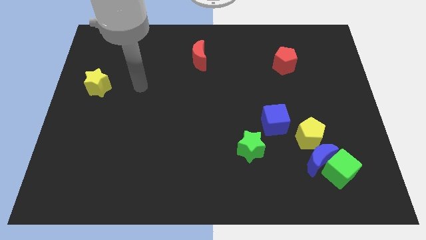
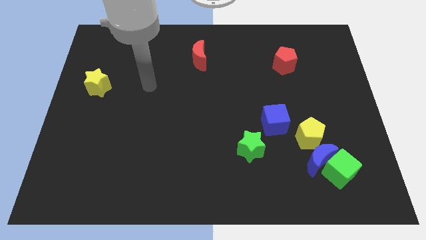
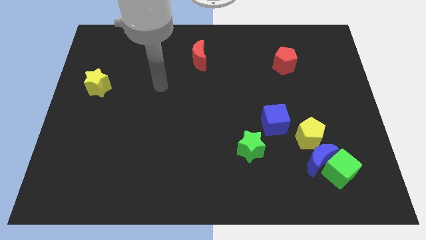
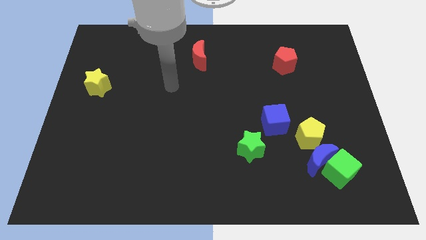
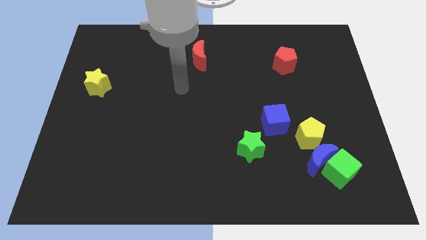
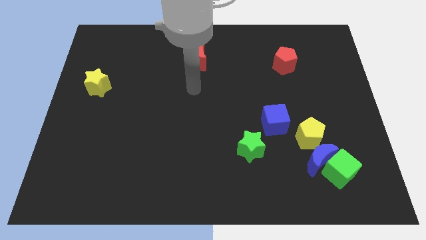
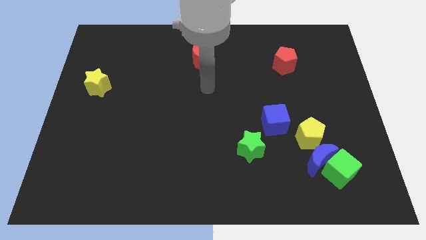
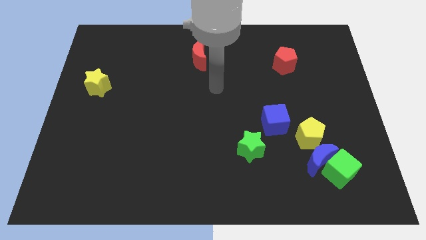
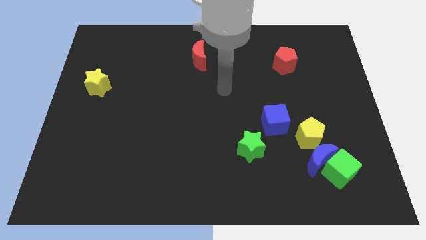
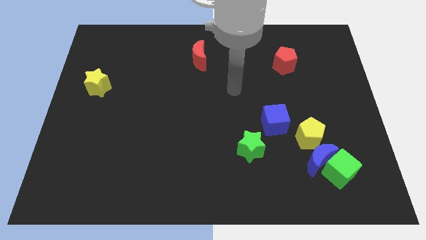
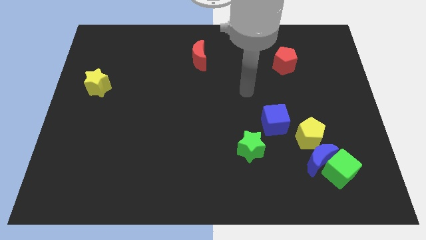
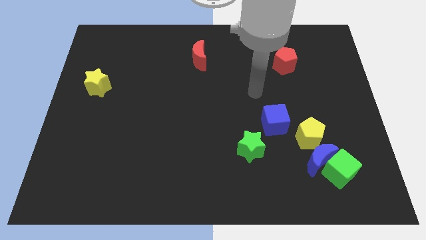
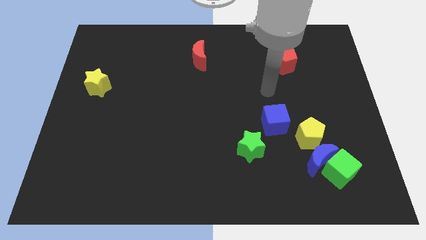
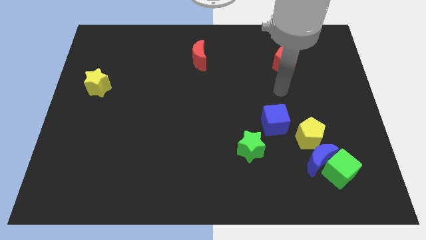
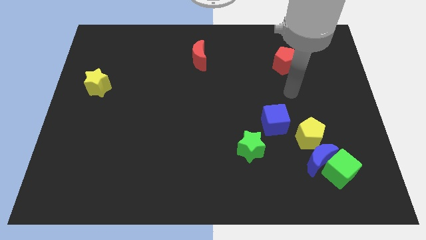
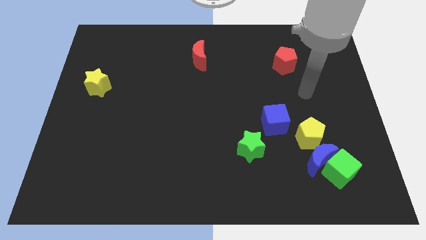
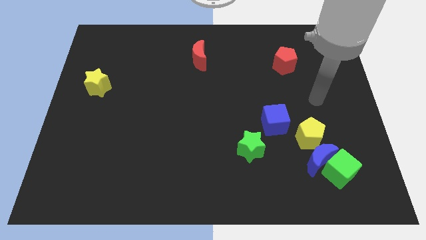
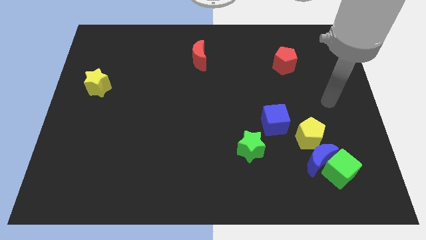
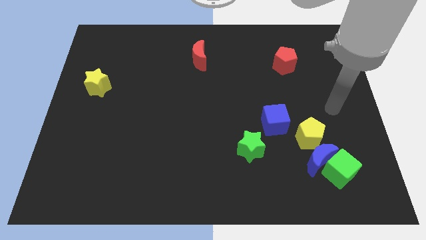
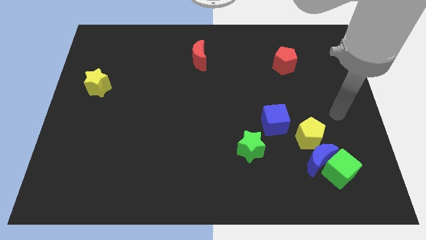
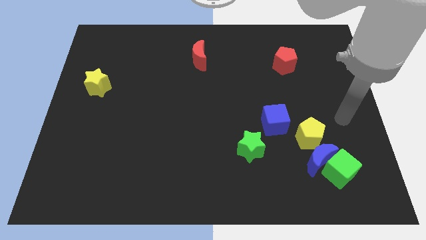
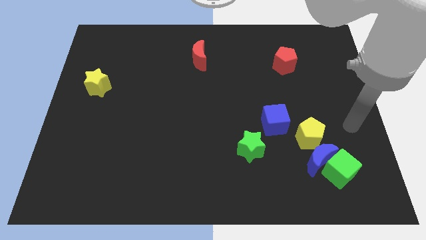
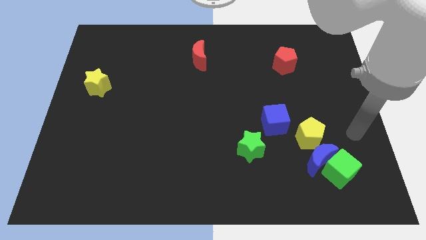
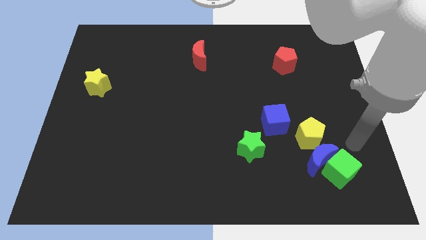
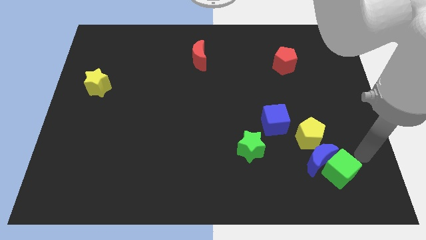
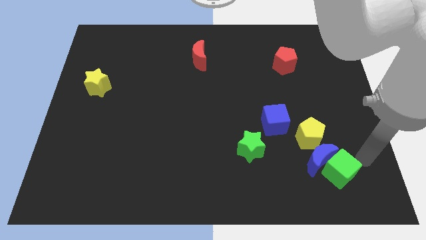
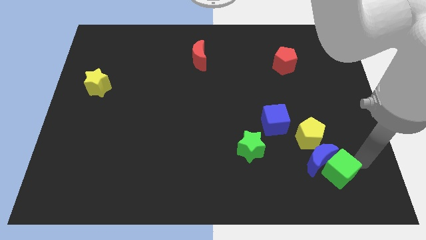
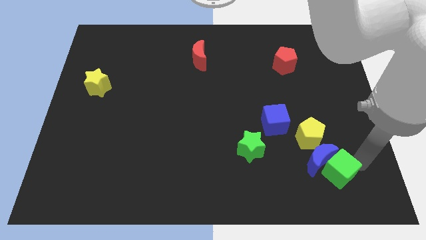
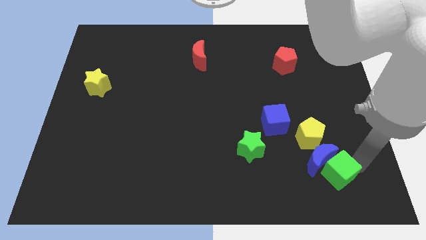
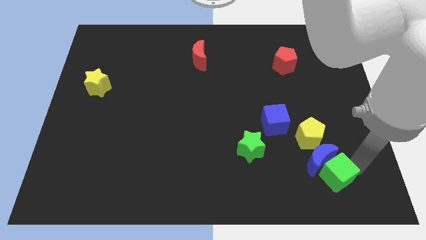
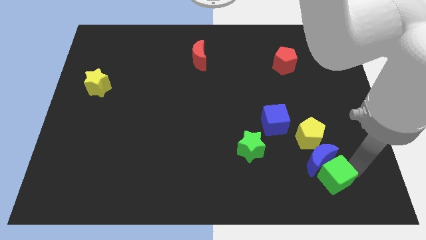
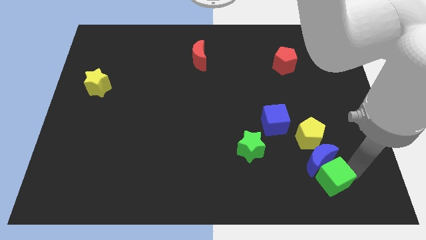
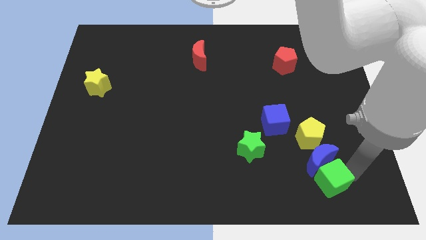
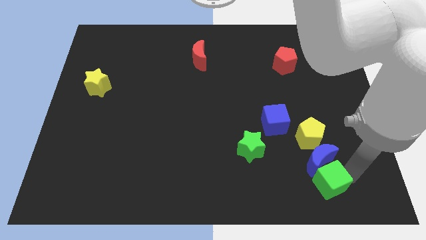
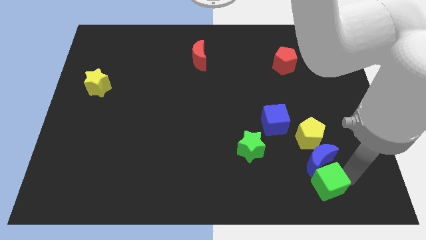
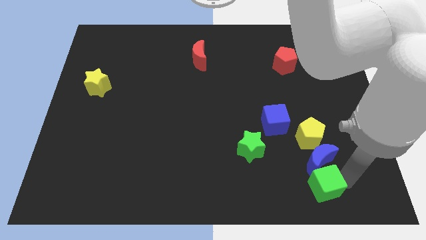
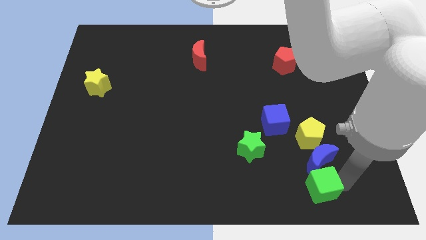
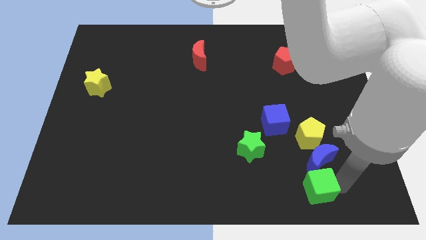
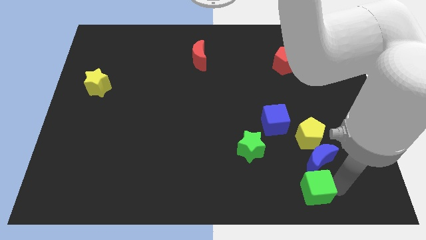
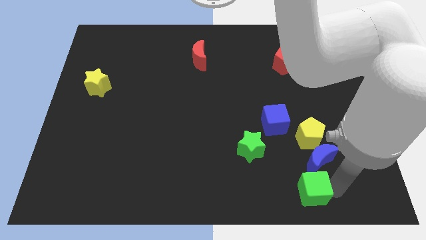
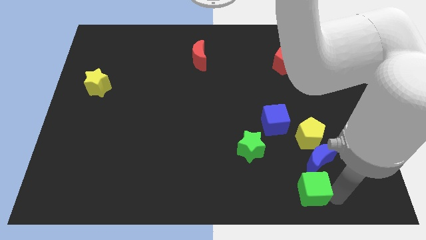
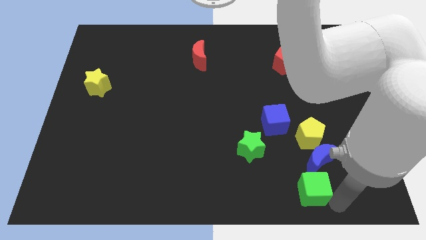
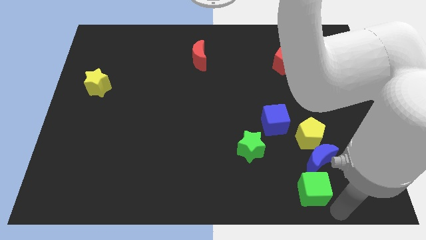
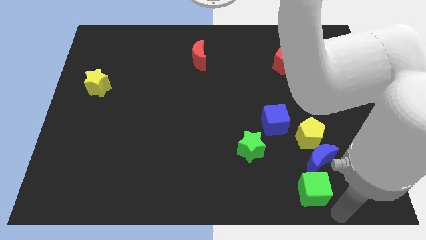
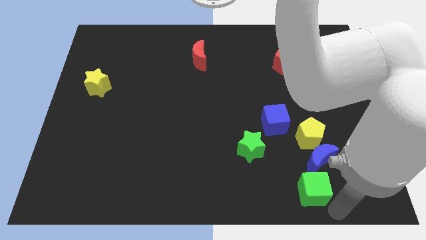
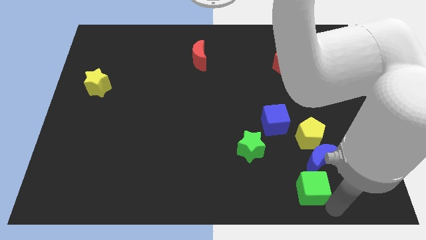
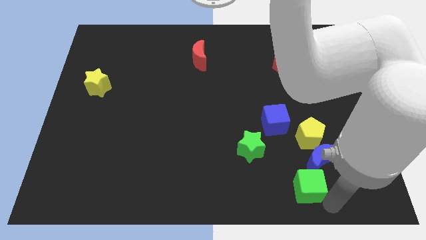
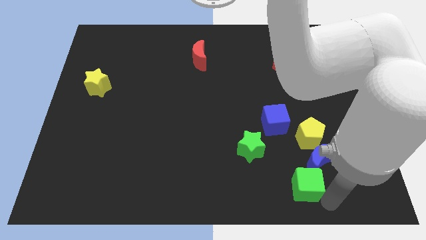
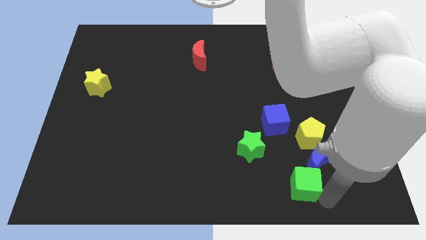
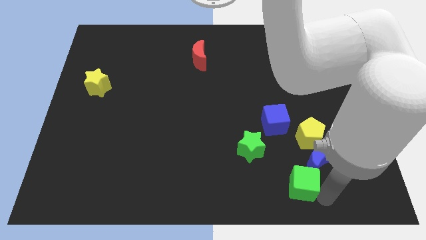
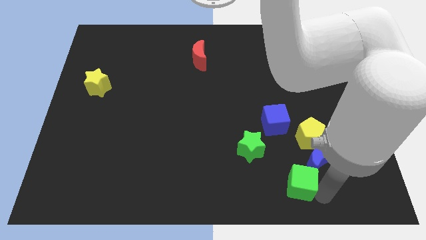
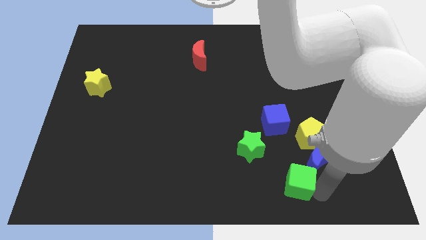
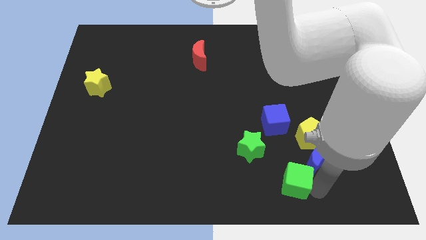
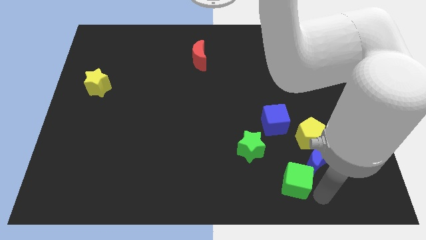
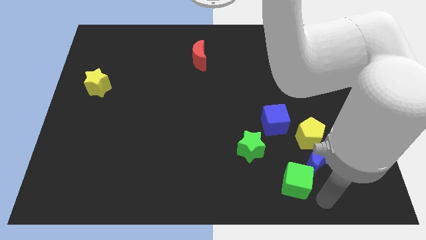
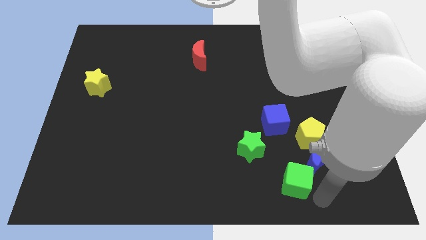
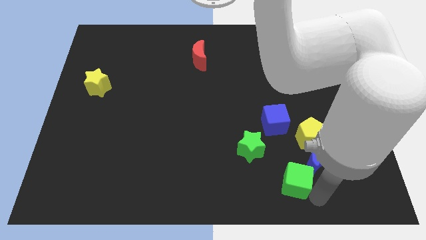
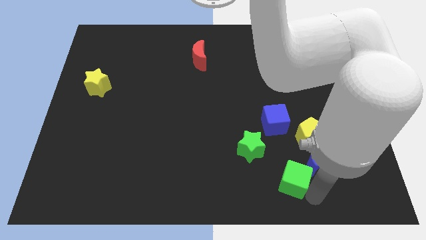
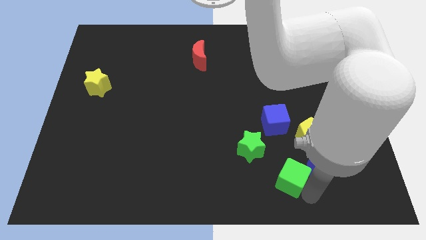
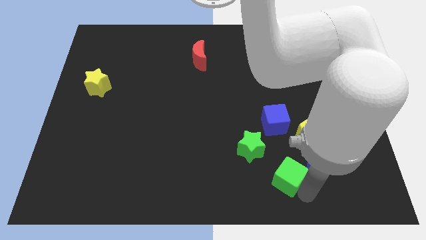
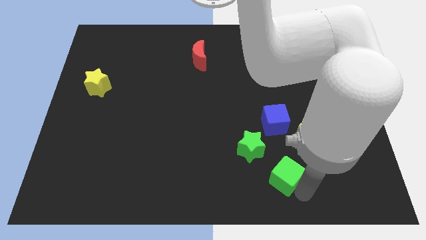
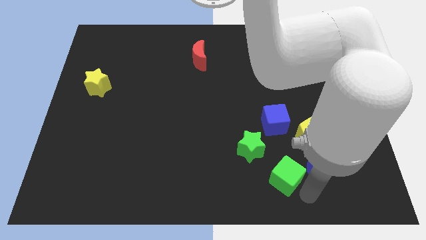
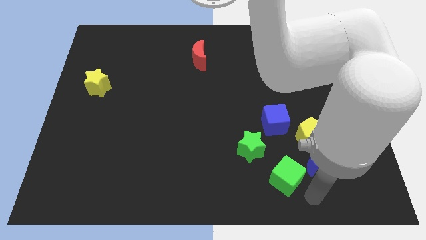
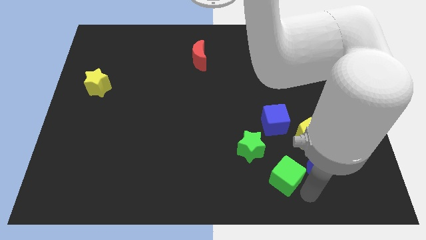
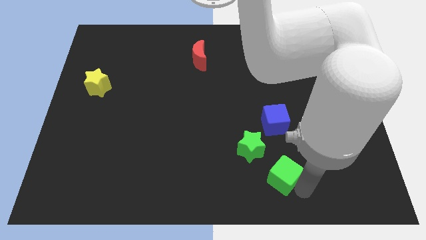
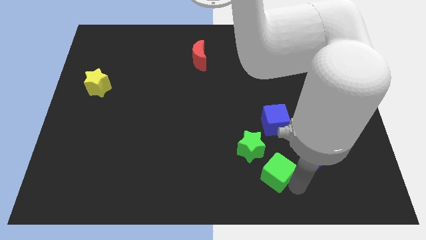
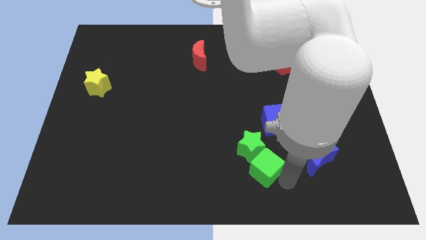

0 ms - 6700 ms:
move the green cube next to the green star
